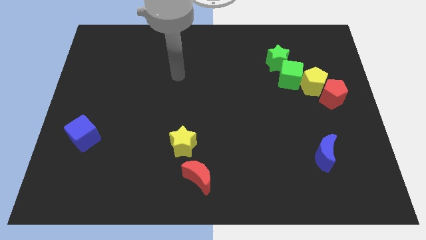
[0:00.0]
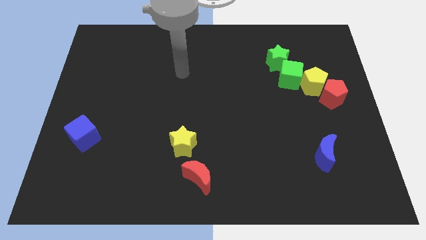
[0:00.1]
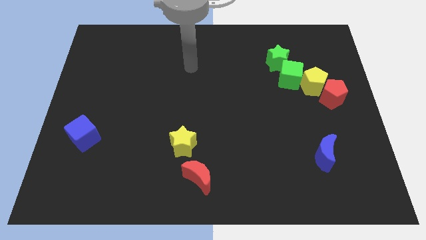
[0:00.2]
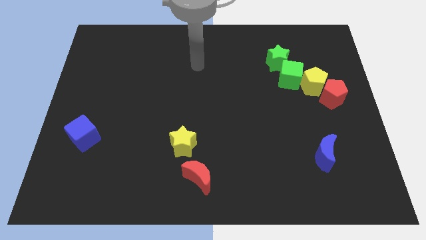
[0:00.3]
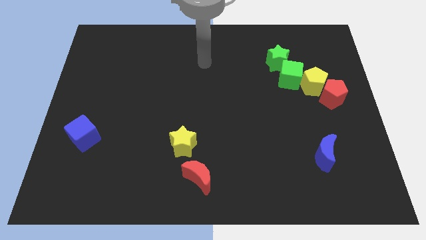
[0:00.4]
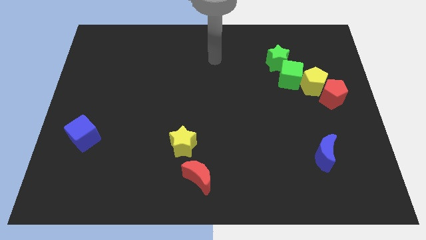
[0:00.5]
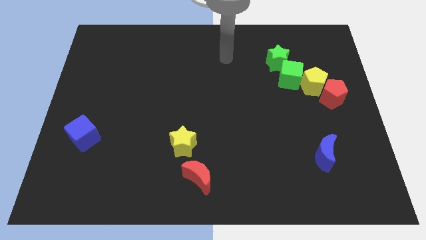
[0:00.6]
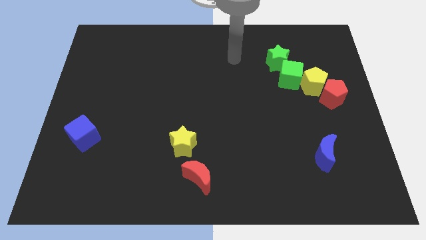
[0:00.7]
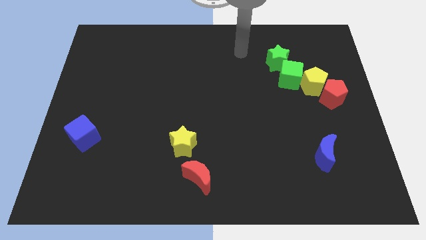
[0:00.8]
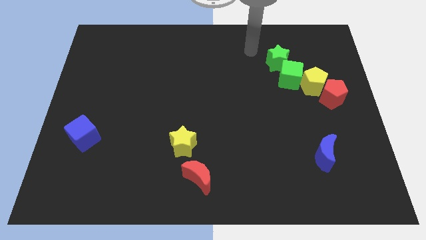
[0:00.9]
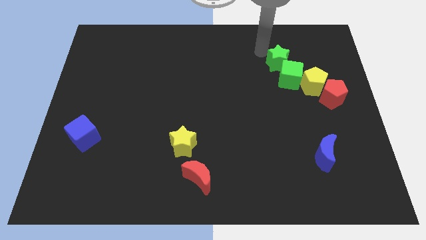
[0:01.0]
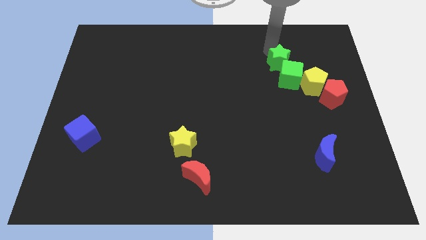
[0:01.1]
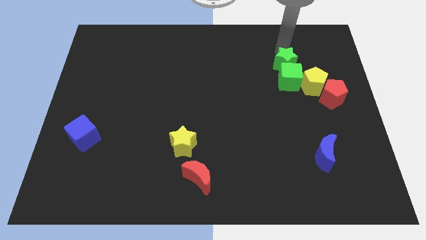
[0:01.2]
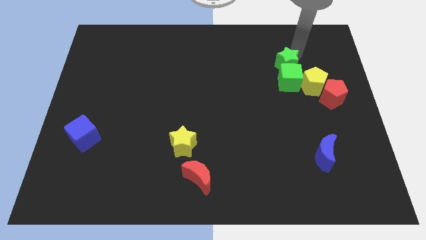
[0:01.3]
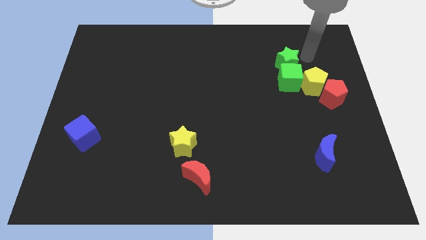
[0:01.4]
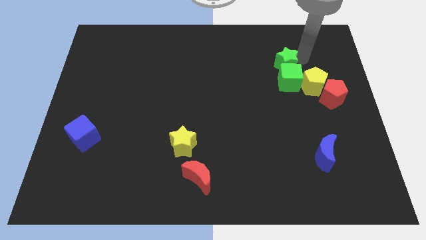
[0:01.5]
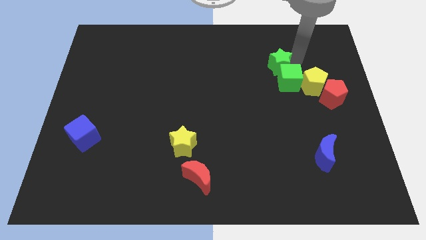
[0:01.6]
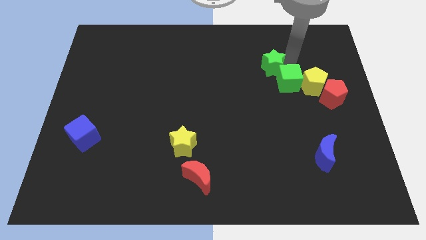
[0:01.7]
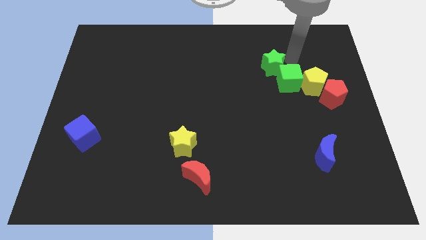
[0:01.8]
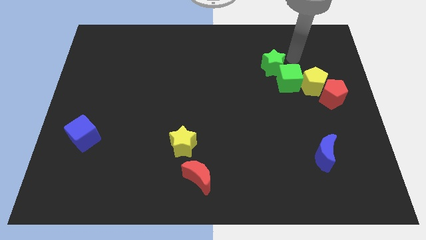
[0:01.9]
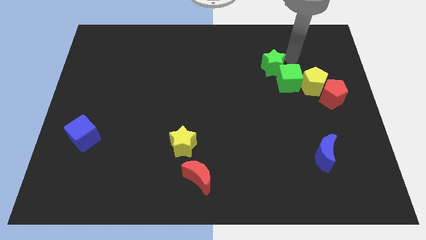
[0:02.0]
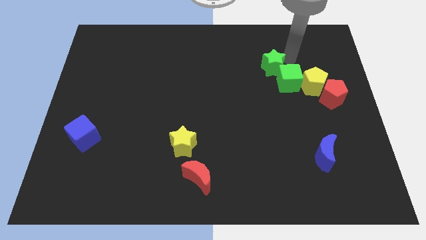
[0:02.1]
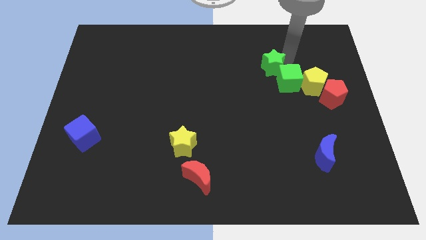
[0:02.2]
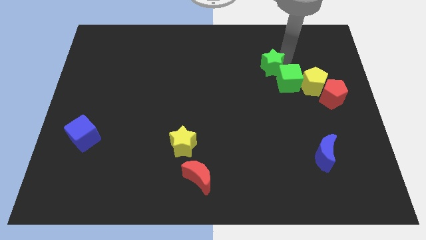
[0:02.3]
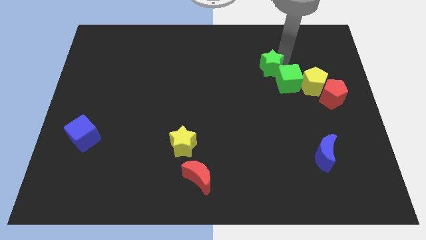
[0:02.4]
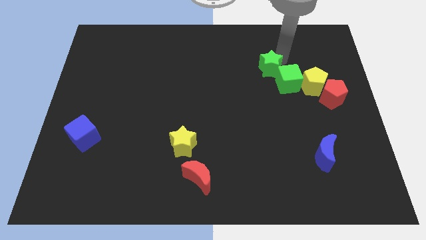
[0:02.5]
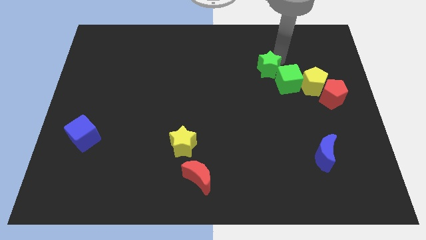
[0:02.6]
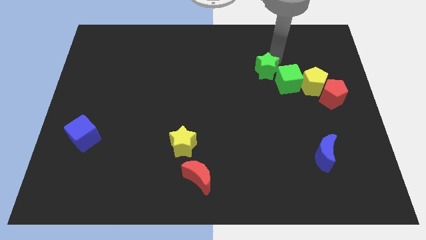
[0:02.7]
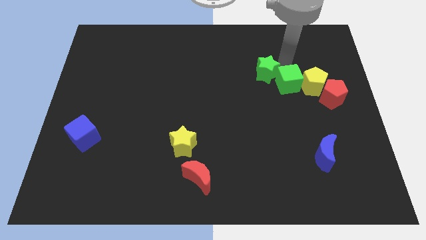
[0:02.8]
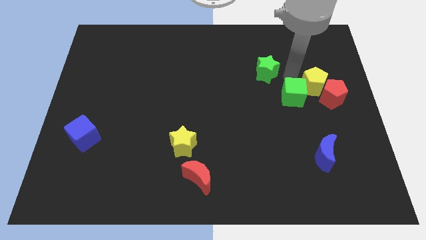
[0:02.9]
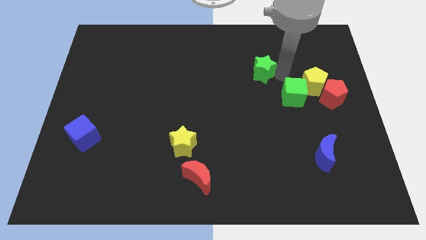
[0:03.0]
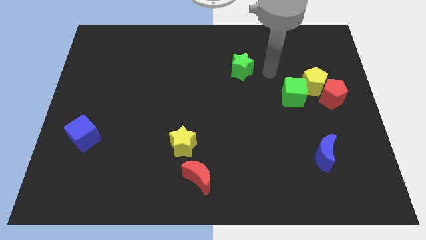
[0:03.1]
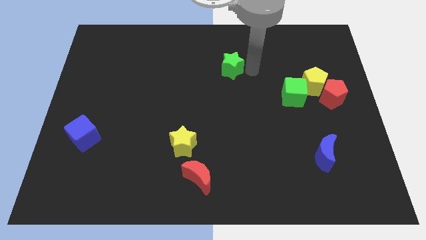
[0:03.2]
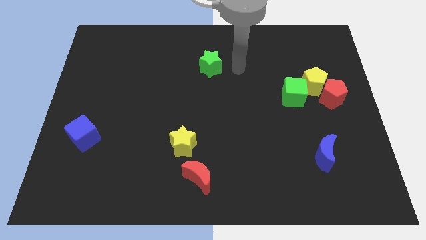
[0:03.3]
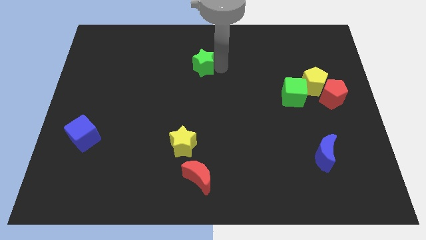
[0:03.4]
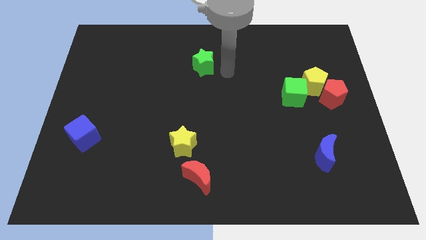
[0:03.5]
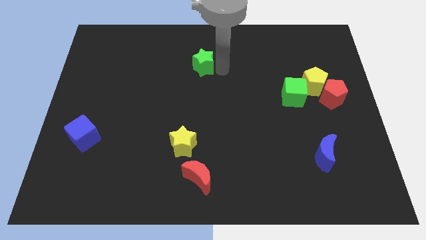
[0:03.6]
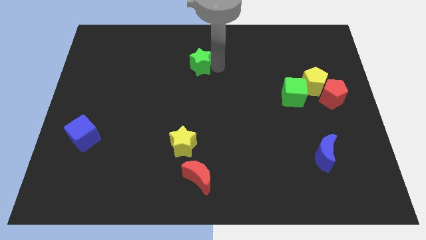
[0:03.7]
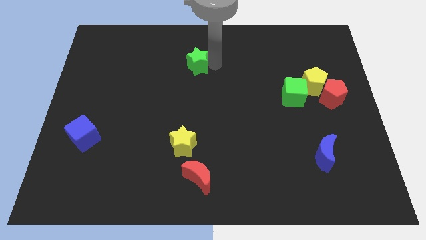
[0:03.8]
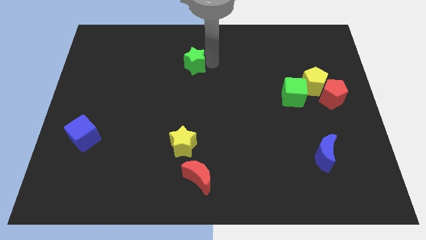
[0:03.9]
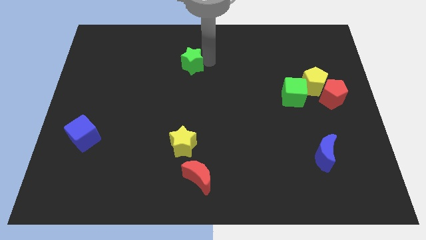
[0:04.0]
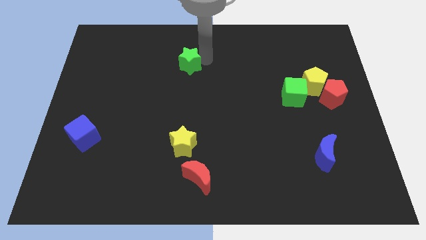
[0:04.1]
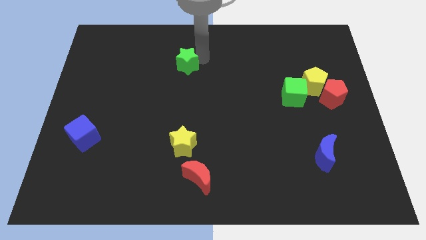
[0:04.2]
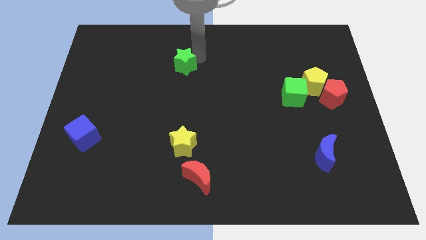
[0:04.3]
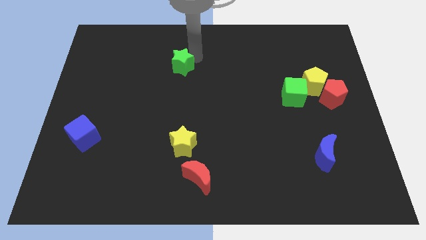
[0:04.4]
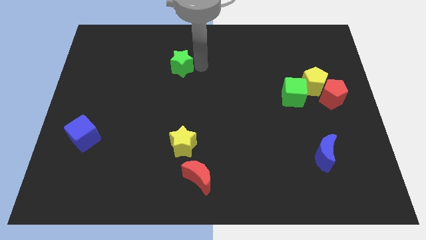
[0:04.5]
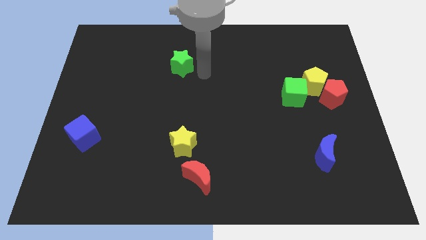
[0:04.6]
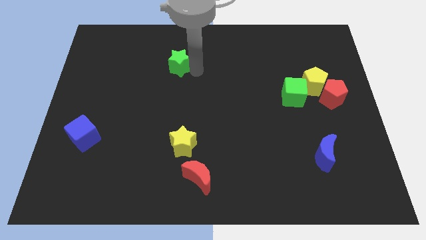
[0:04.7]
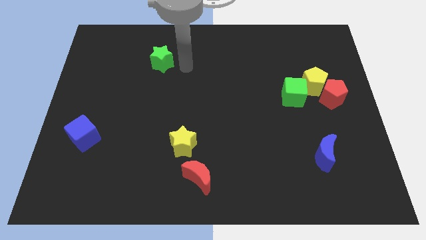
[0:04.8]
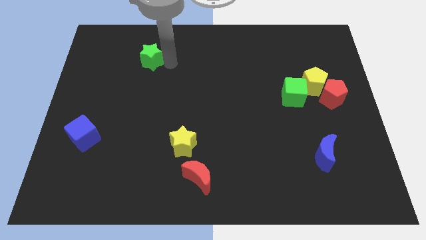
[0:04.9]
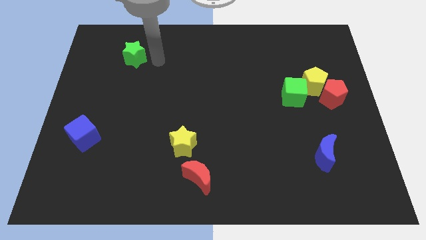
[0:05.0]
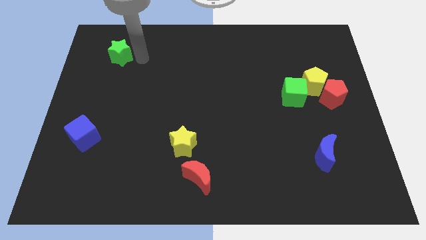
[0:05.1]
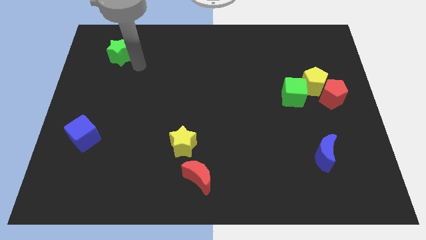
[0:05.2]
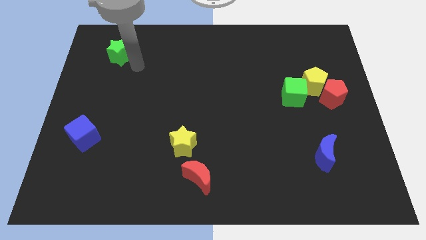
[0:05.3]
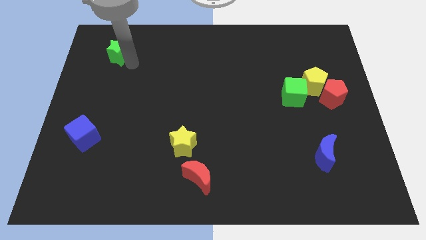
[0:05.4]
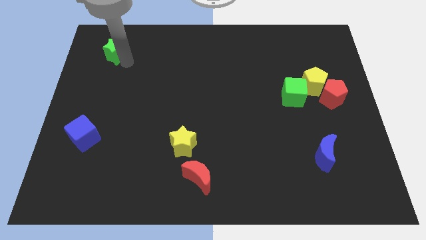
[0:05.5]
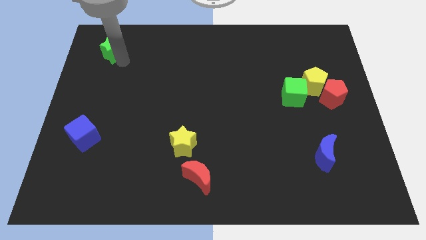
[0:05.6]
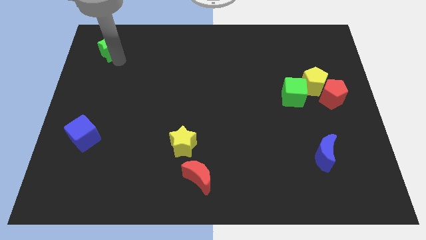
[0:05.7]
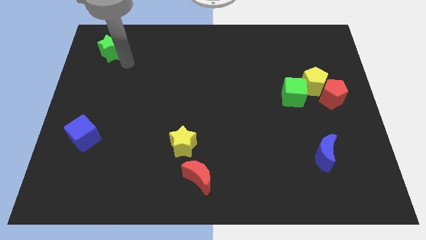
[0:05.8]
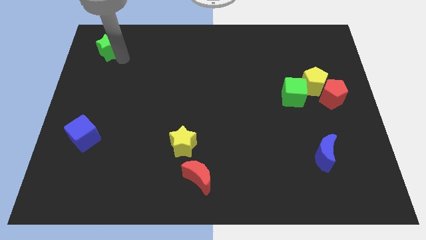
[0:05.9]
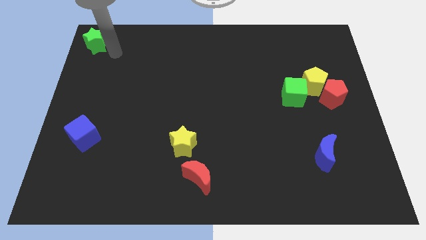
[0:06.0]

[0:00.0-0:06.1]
push the green star to the top left
